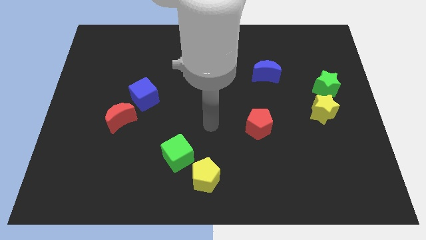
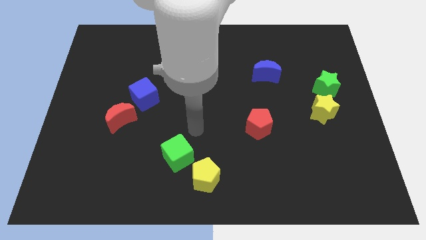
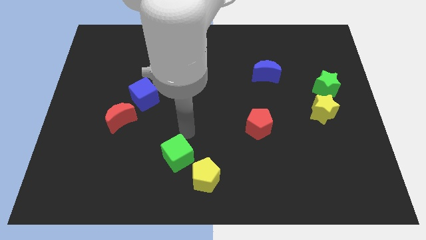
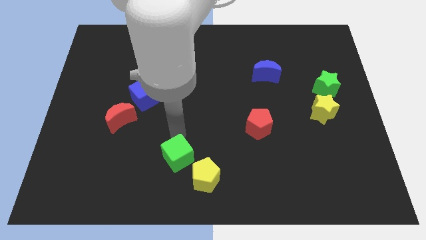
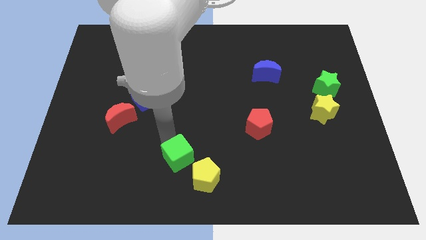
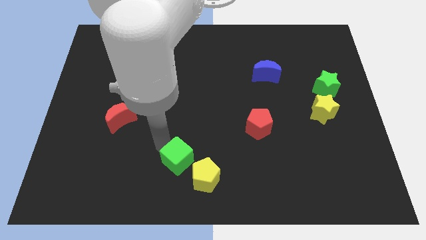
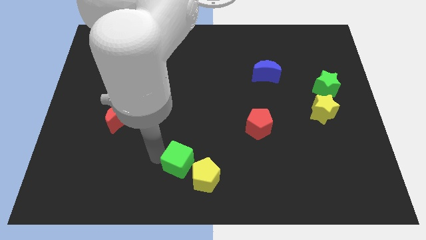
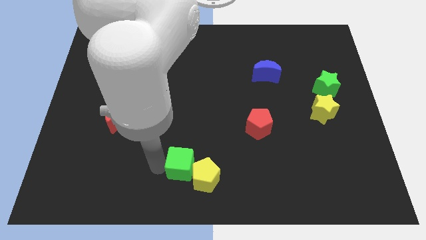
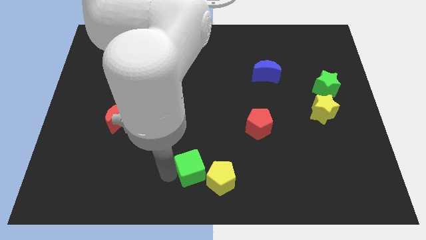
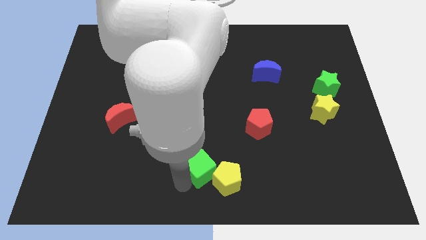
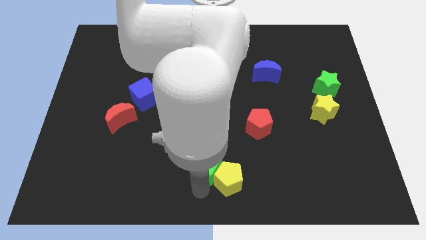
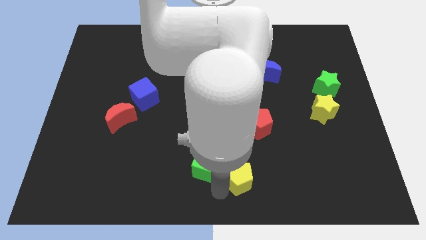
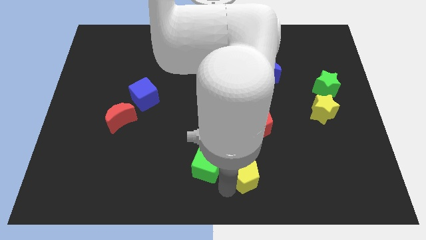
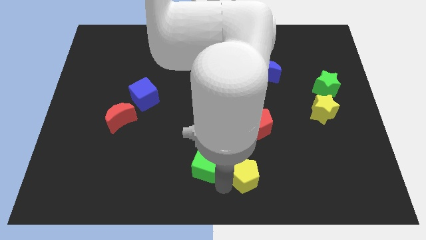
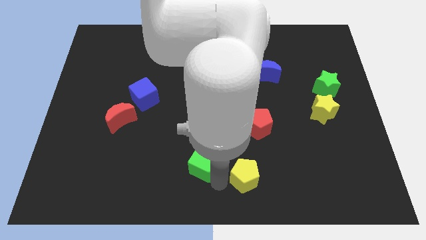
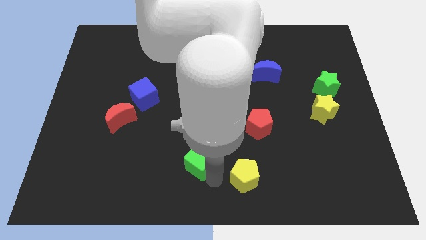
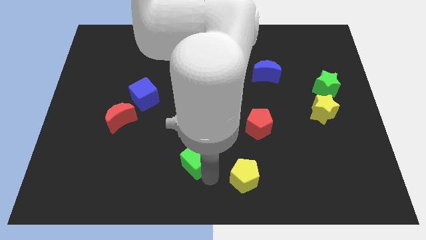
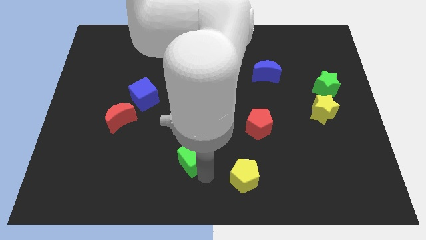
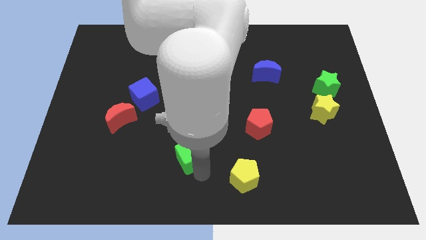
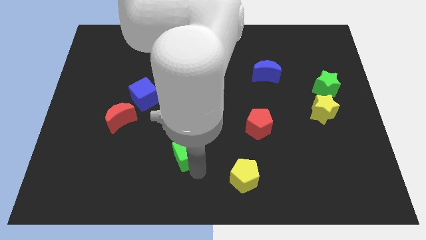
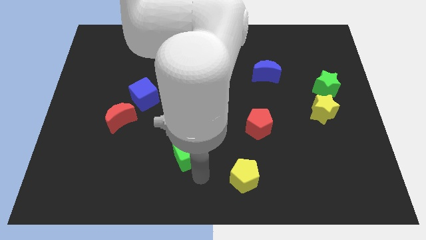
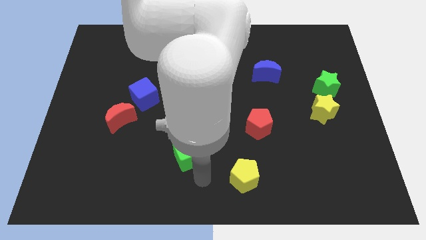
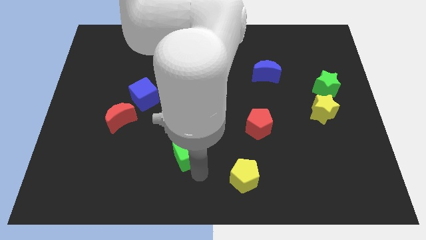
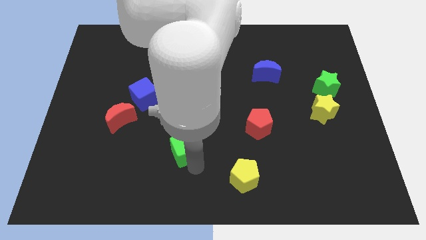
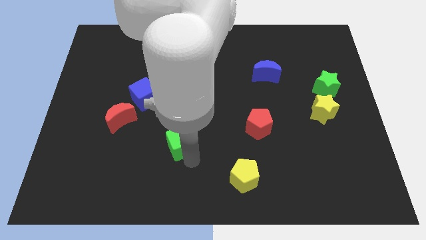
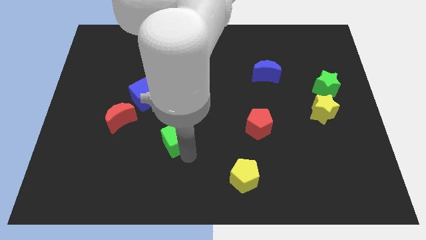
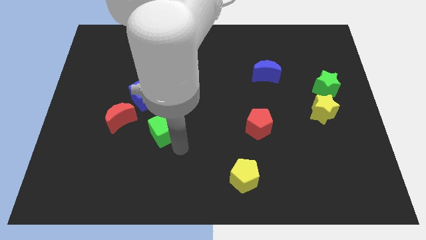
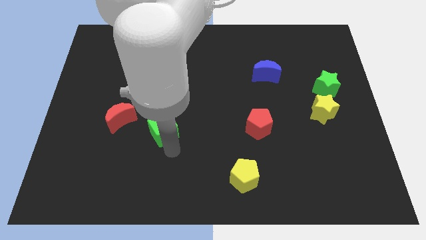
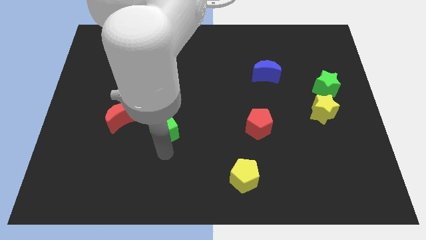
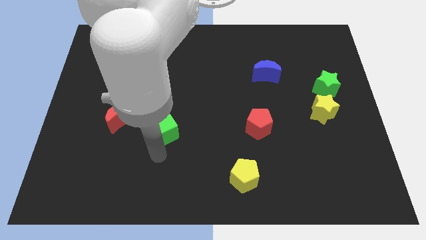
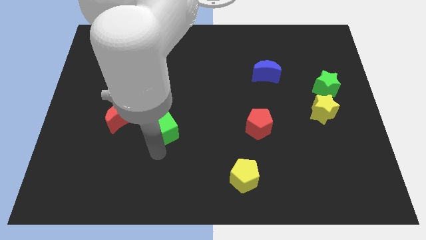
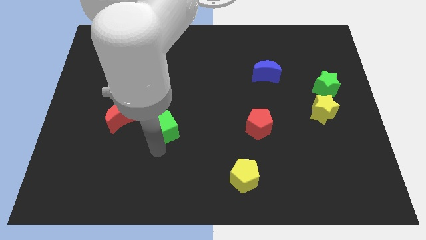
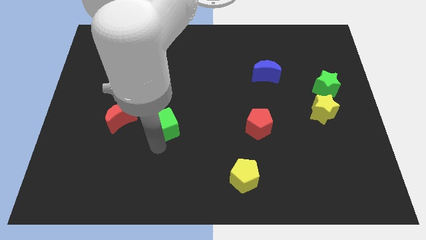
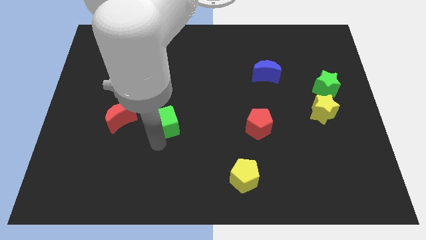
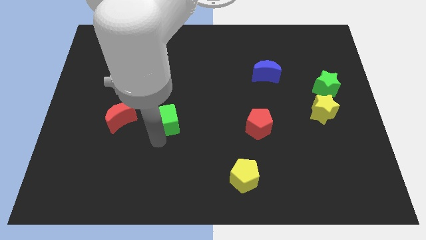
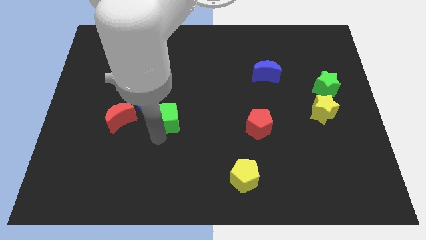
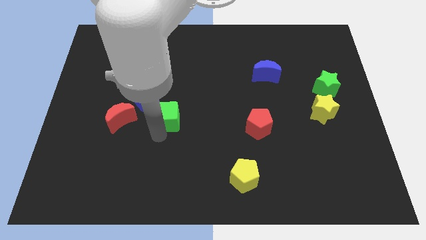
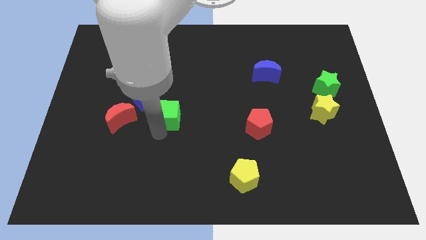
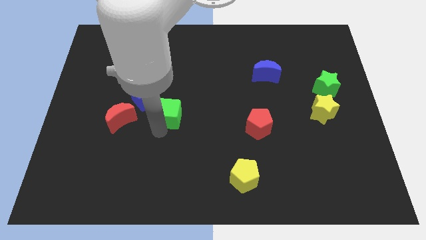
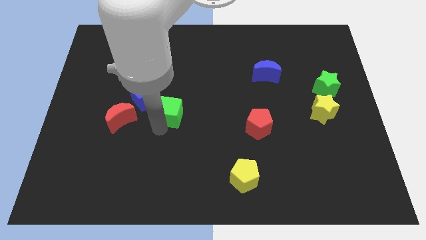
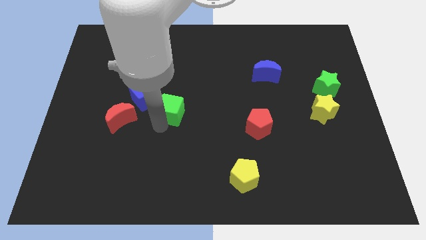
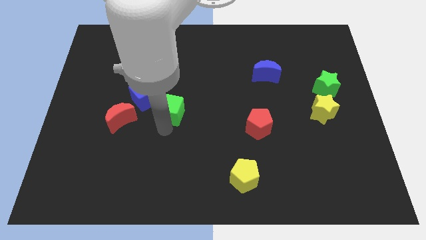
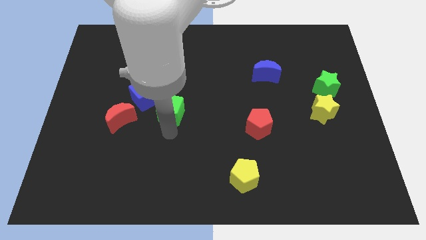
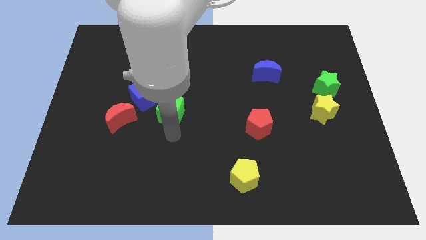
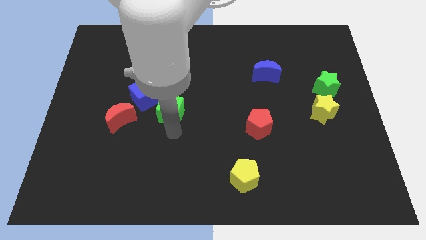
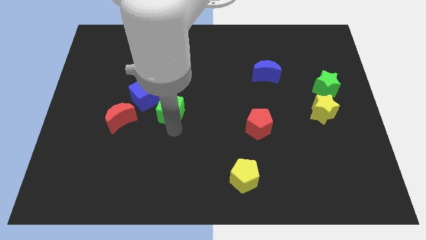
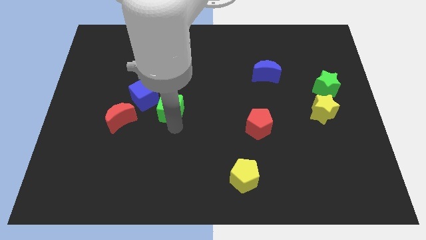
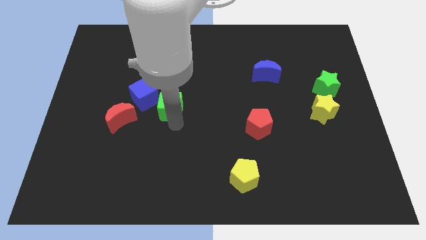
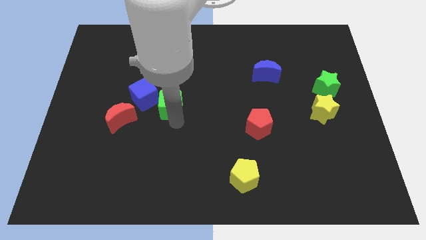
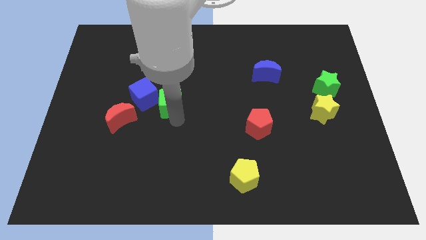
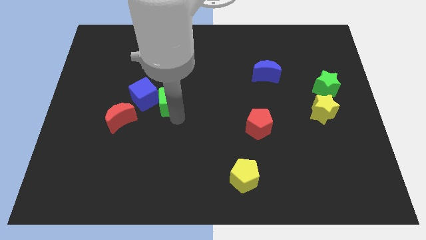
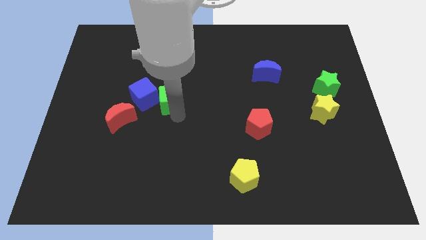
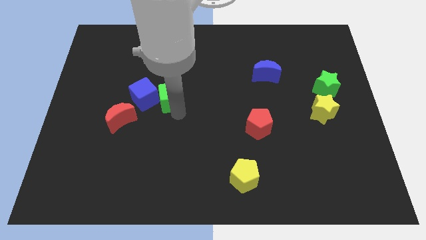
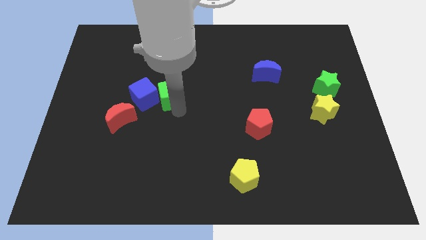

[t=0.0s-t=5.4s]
slide the green cube to the top right of the blue cube

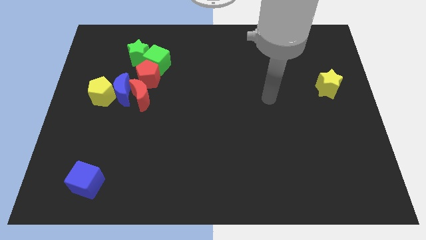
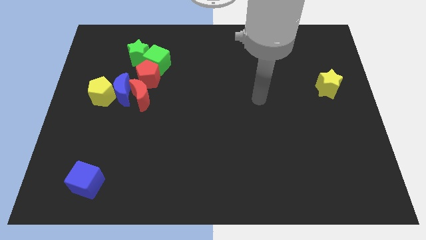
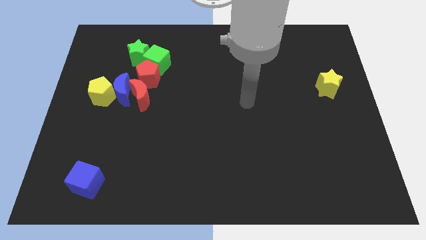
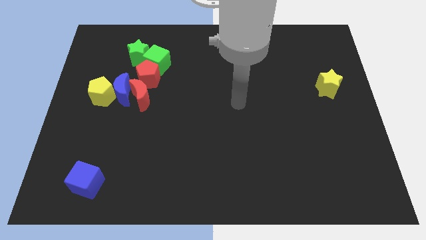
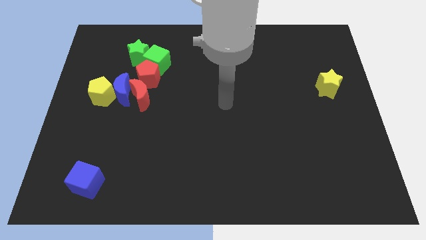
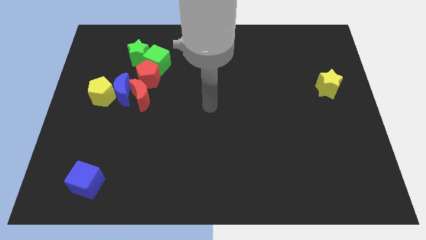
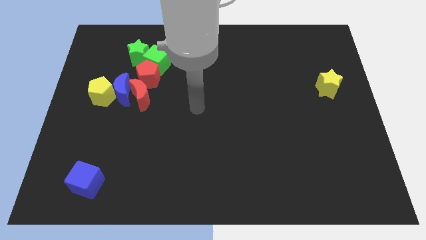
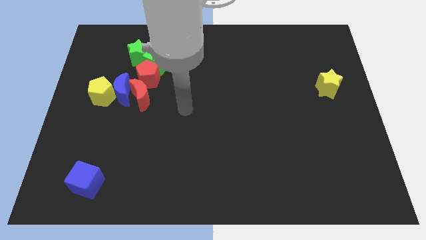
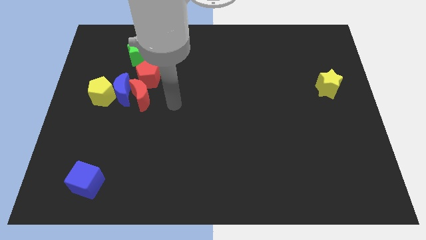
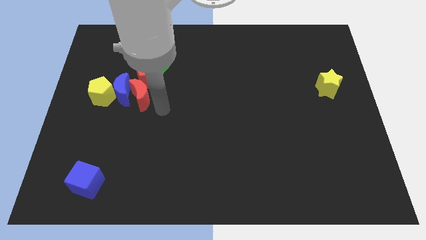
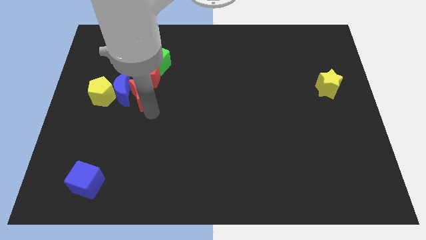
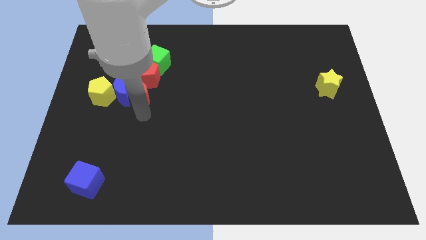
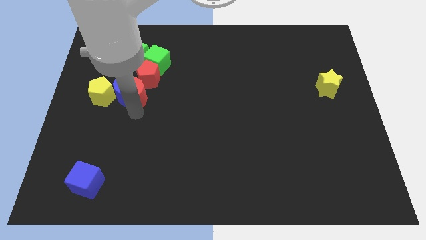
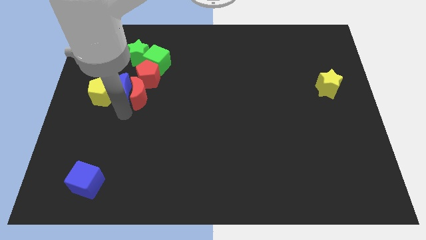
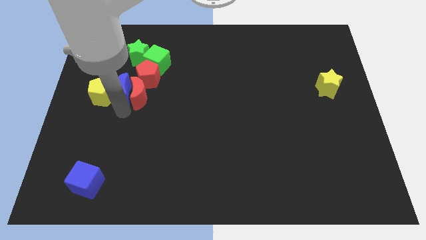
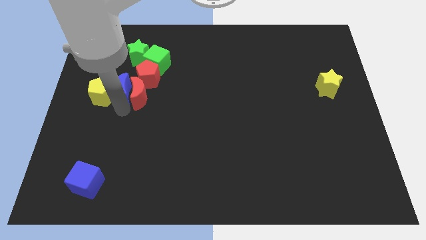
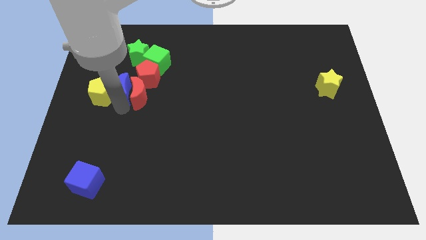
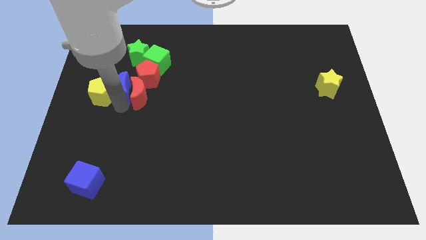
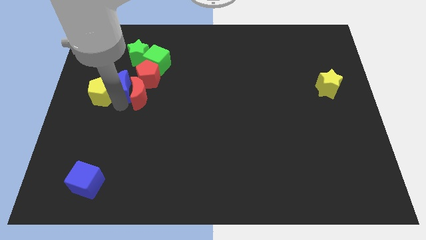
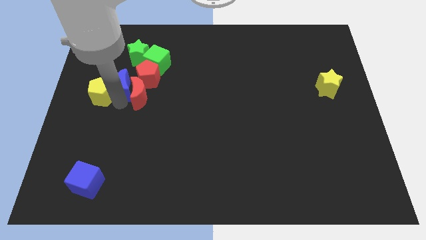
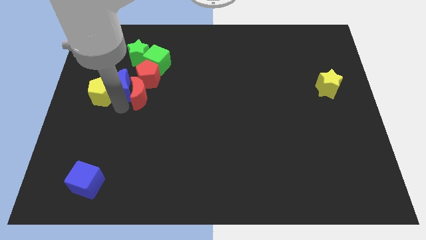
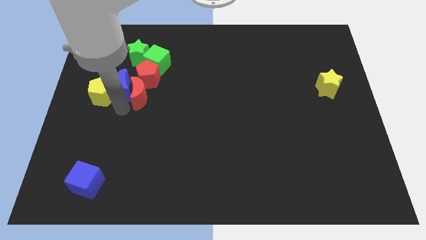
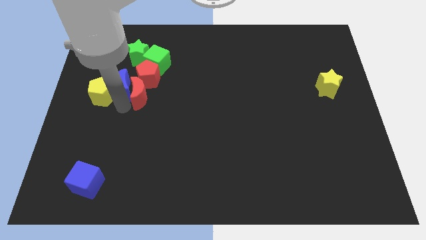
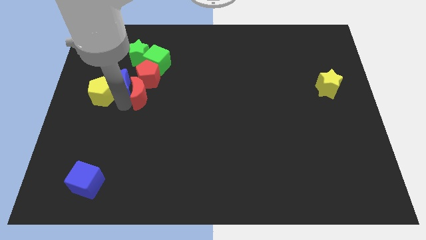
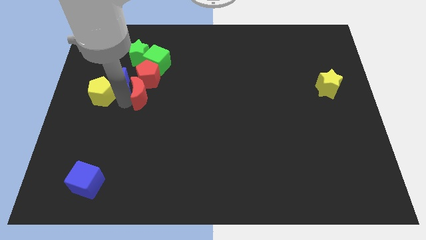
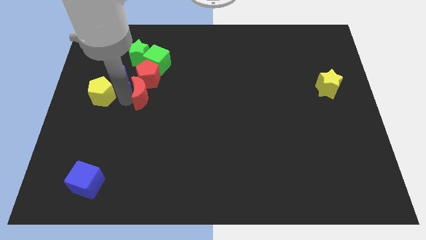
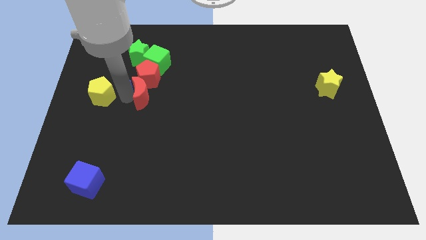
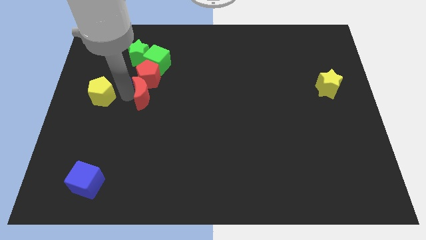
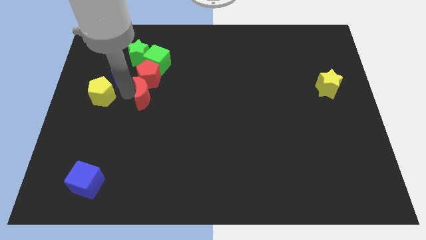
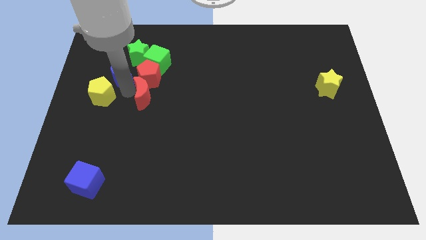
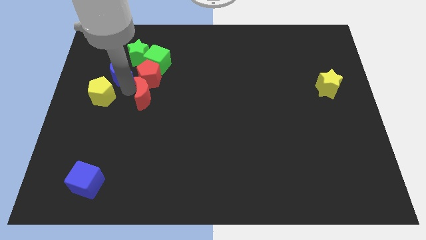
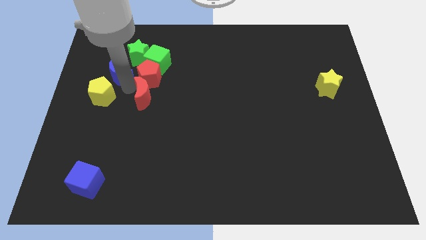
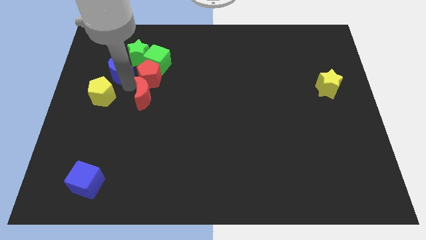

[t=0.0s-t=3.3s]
slide the blue moon to the top left side of the red pentagon
